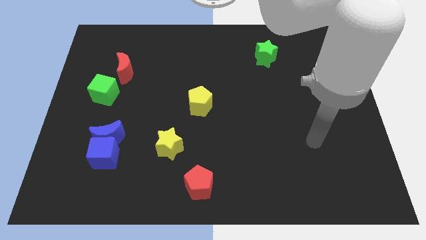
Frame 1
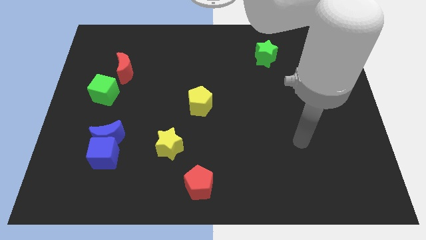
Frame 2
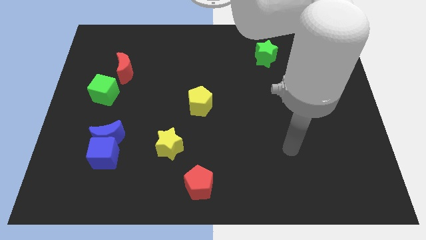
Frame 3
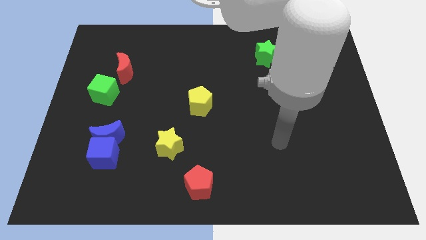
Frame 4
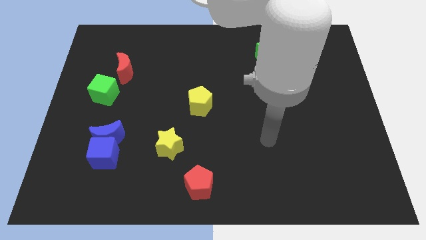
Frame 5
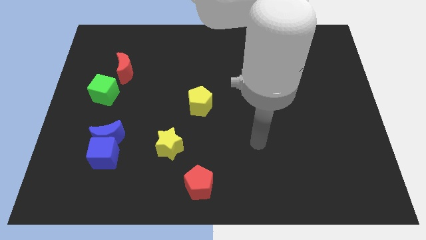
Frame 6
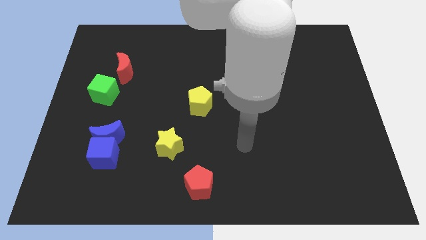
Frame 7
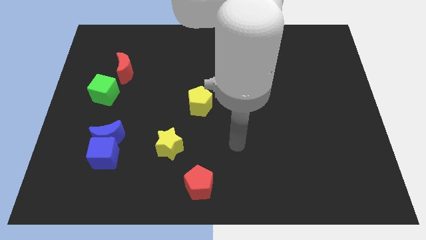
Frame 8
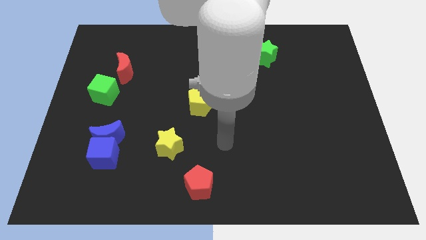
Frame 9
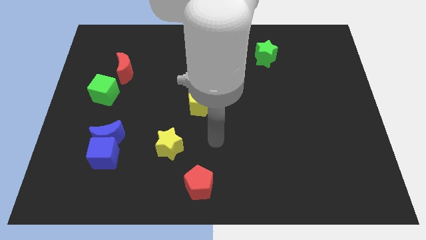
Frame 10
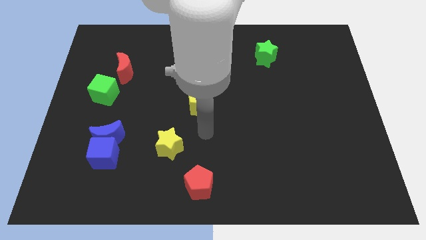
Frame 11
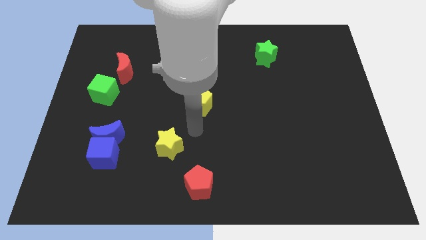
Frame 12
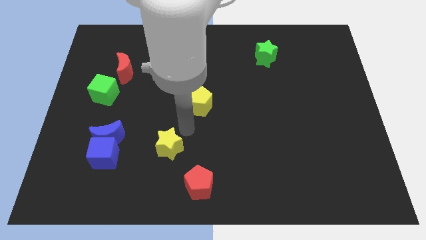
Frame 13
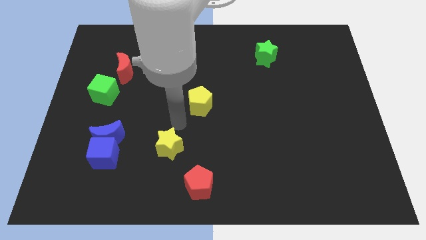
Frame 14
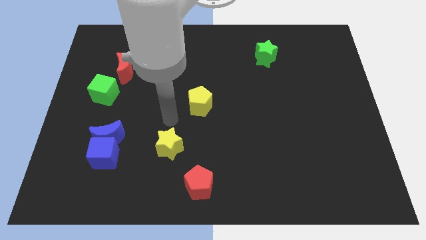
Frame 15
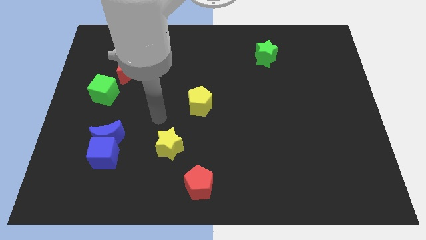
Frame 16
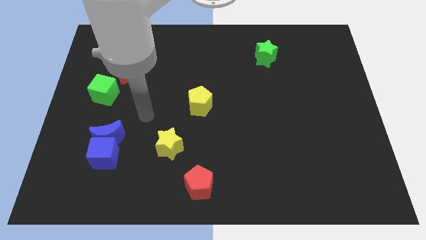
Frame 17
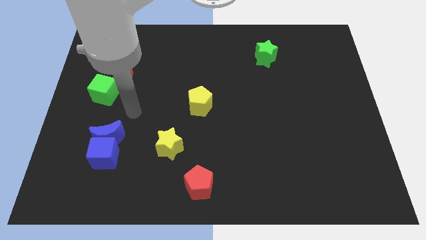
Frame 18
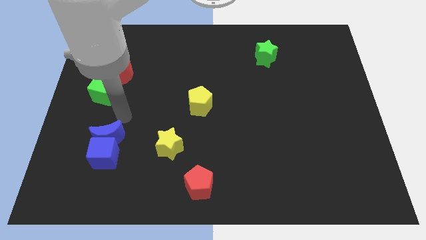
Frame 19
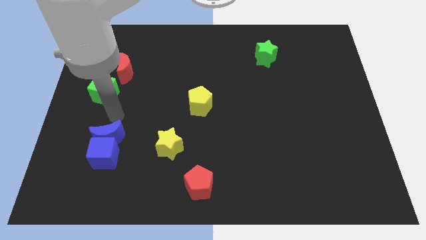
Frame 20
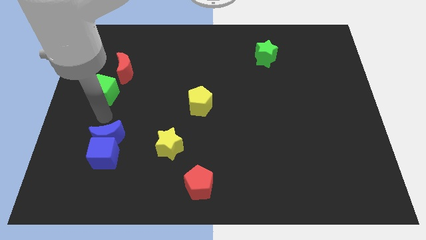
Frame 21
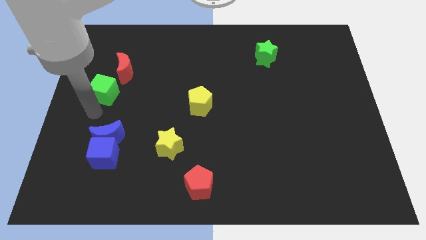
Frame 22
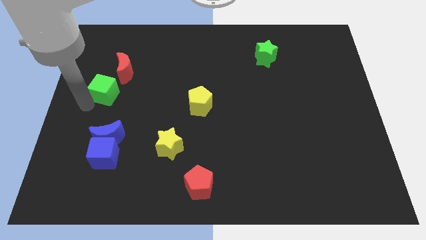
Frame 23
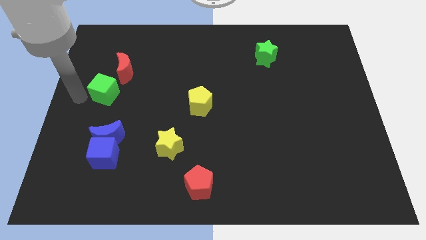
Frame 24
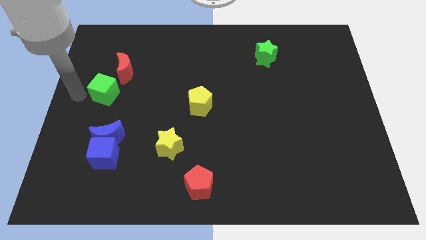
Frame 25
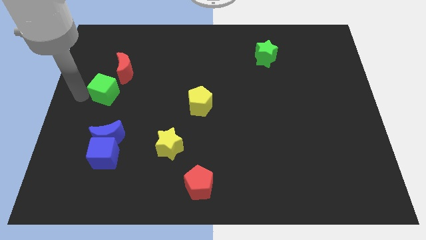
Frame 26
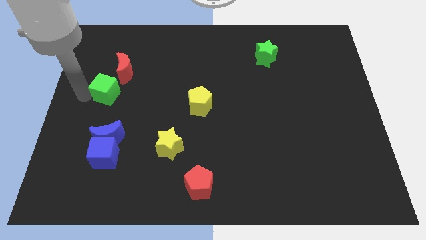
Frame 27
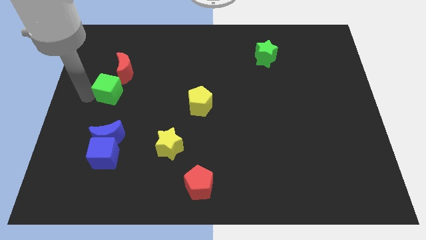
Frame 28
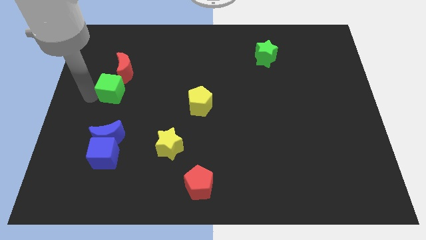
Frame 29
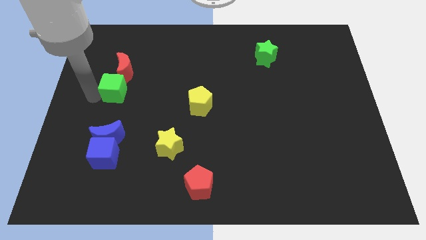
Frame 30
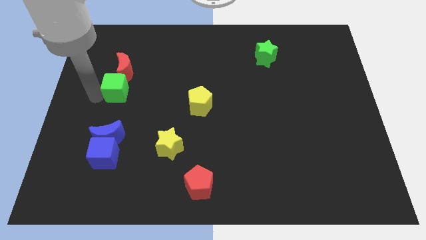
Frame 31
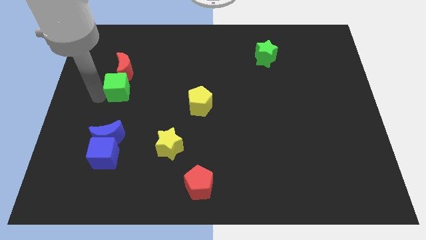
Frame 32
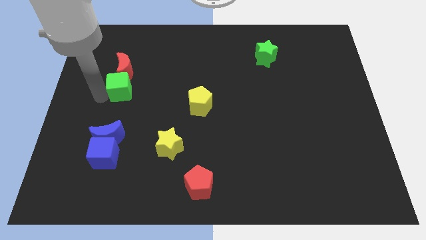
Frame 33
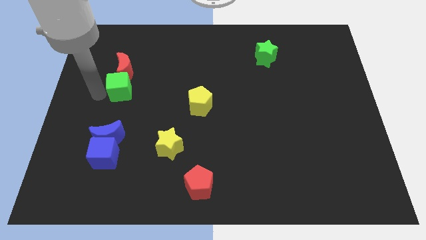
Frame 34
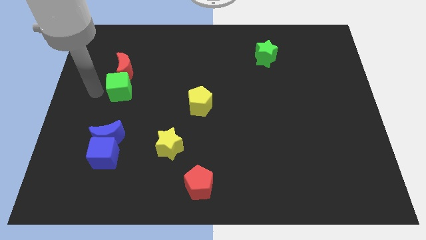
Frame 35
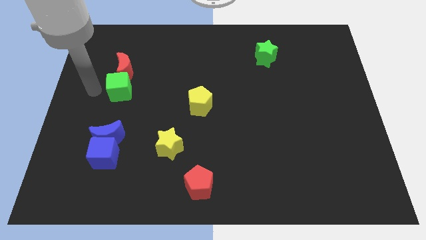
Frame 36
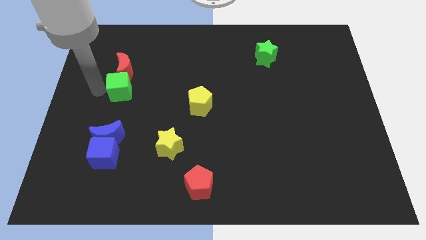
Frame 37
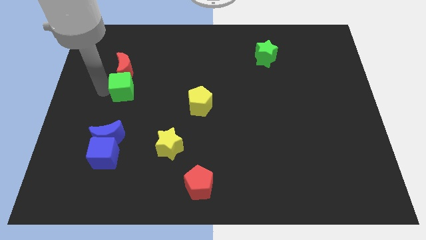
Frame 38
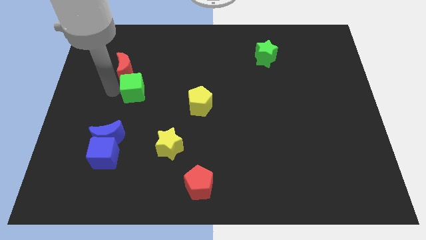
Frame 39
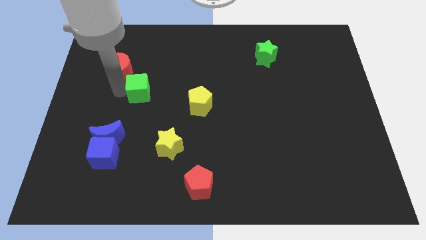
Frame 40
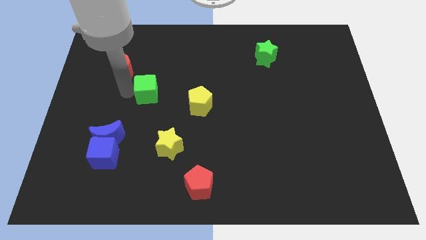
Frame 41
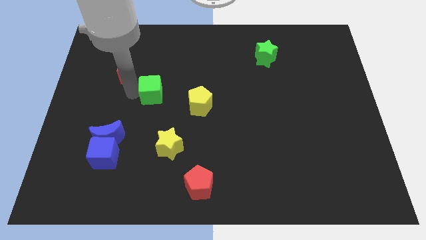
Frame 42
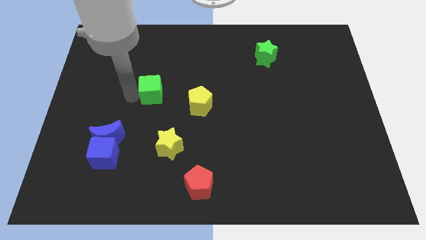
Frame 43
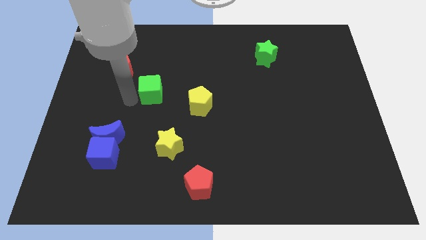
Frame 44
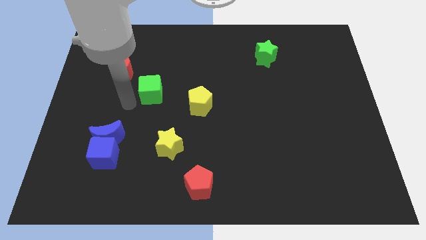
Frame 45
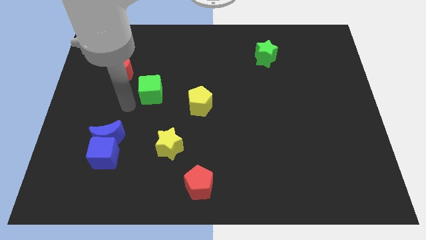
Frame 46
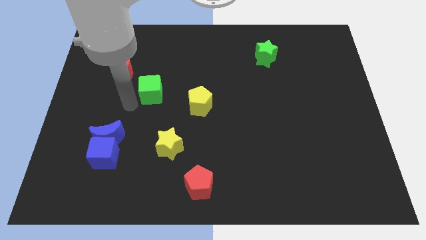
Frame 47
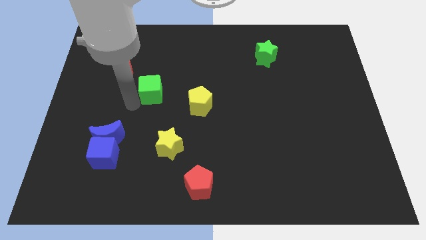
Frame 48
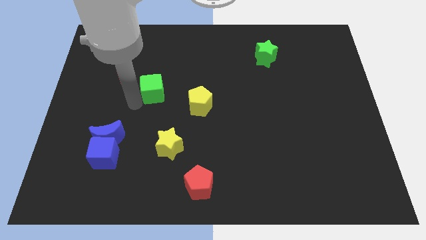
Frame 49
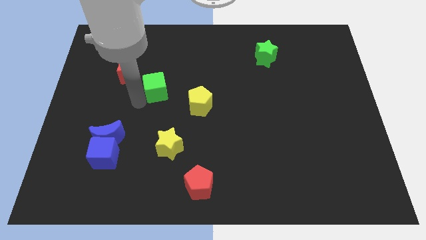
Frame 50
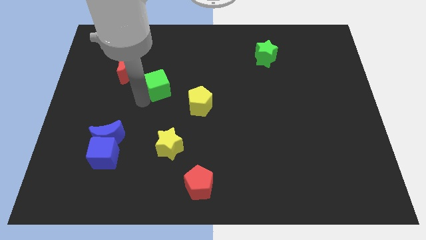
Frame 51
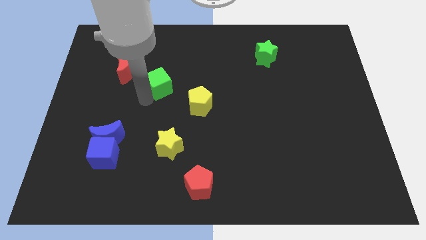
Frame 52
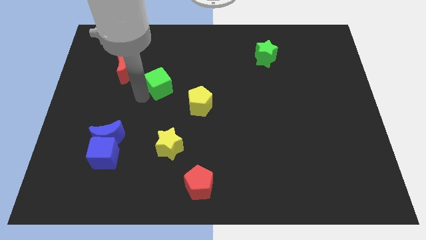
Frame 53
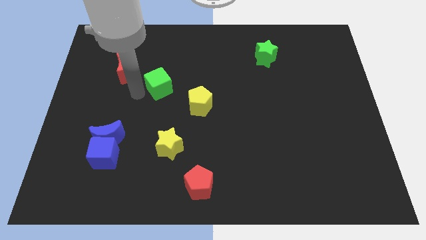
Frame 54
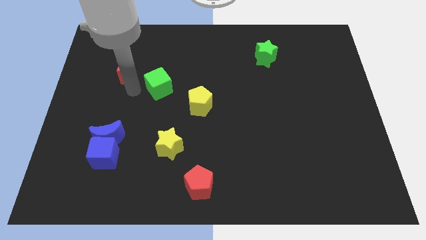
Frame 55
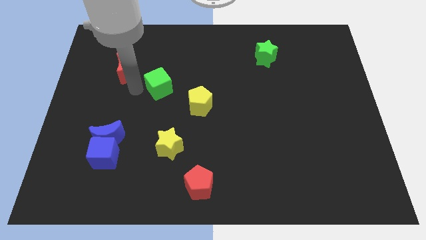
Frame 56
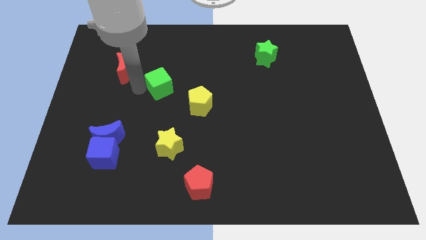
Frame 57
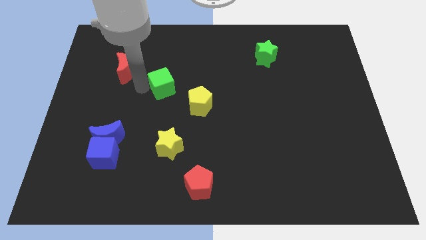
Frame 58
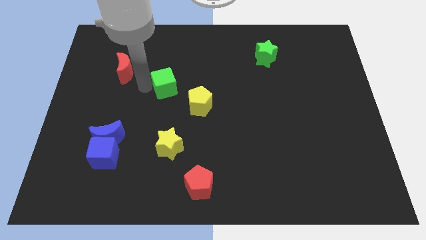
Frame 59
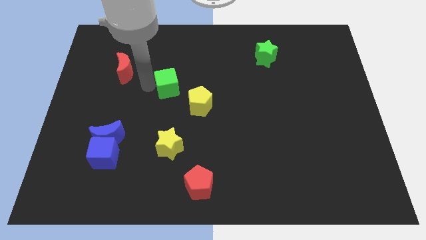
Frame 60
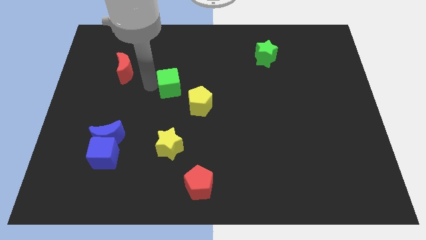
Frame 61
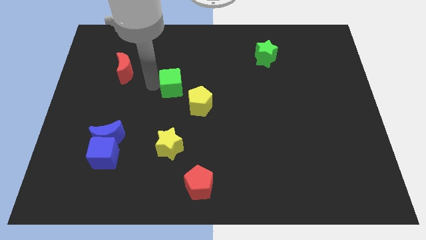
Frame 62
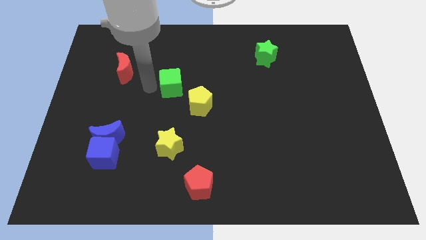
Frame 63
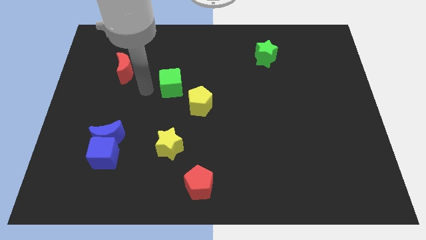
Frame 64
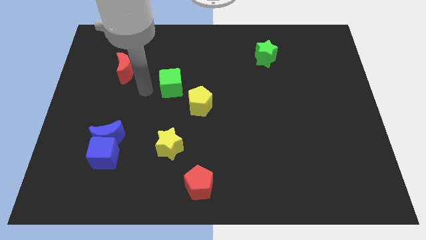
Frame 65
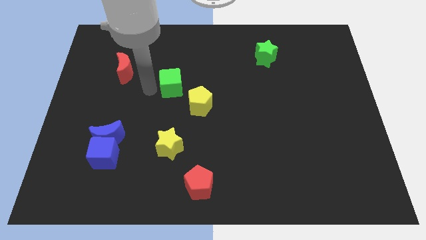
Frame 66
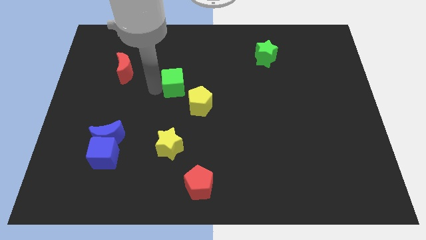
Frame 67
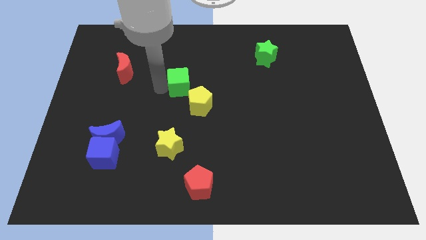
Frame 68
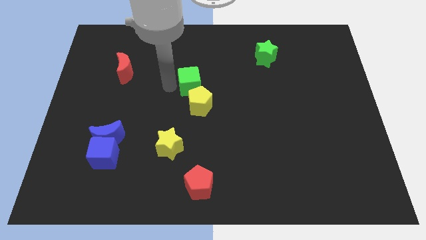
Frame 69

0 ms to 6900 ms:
slide the green cube right

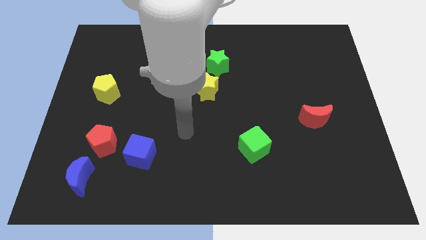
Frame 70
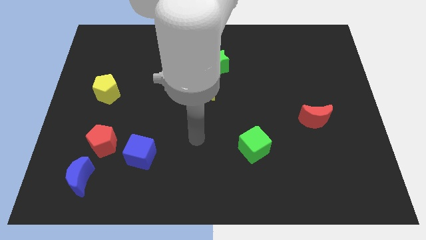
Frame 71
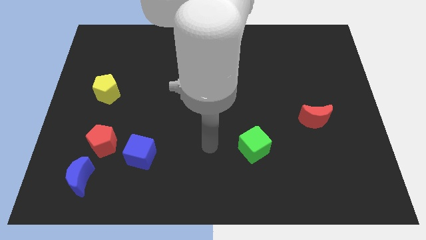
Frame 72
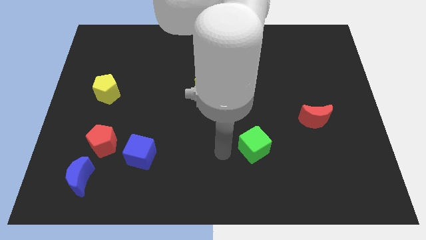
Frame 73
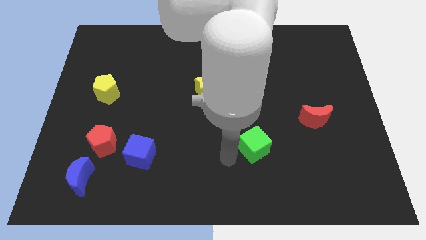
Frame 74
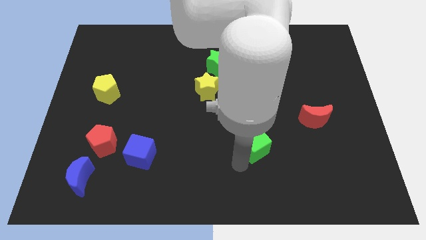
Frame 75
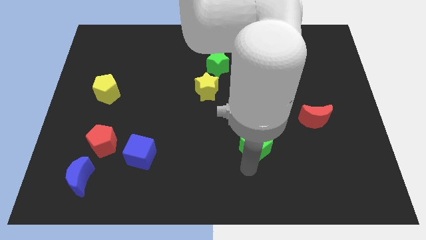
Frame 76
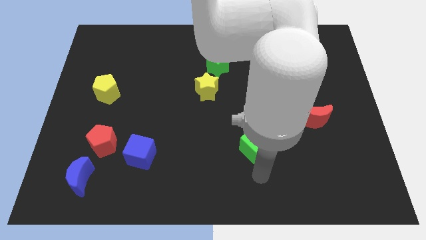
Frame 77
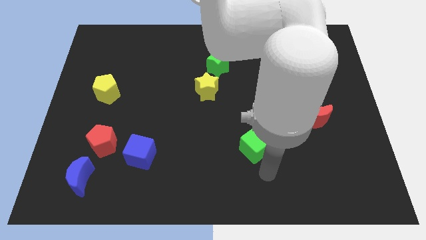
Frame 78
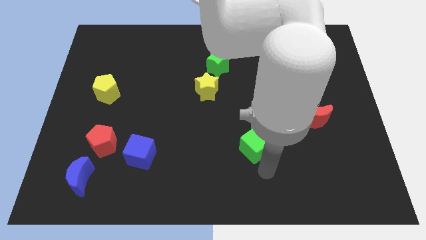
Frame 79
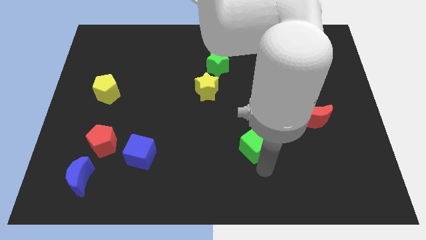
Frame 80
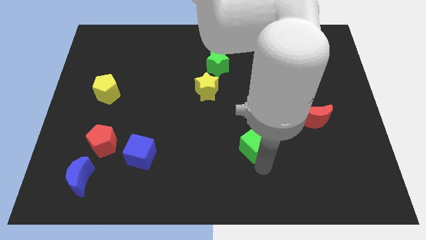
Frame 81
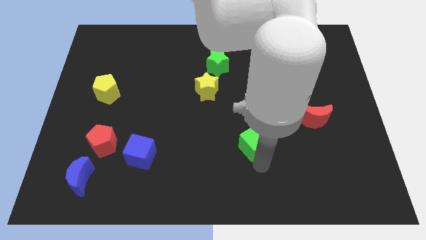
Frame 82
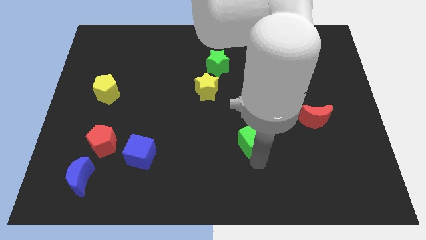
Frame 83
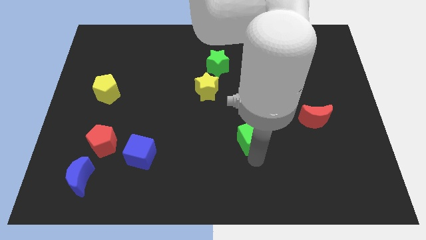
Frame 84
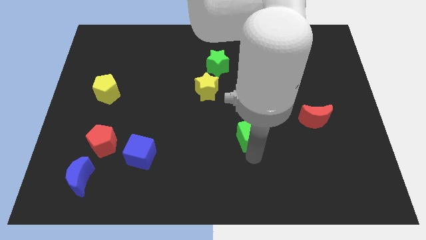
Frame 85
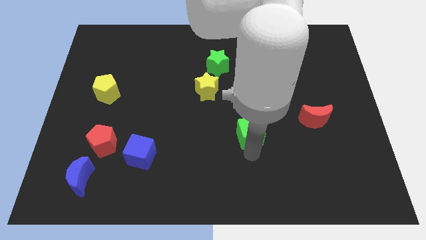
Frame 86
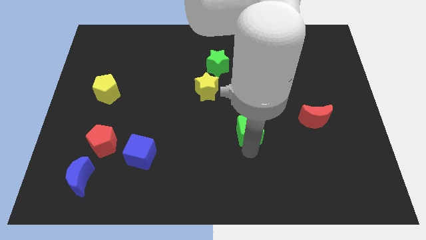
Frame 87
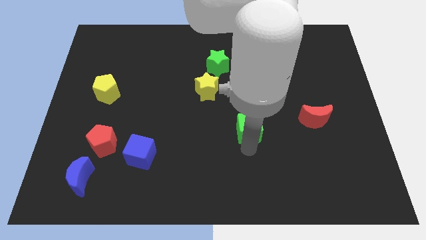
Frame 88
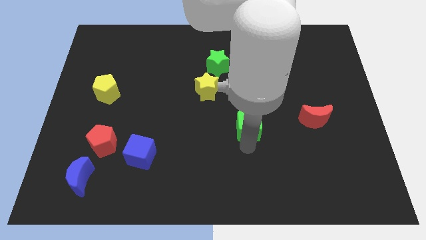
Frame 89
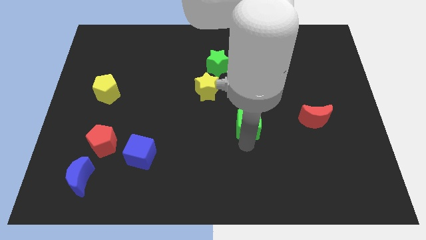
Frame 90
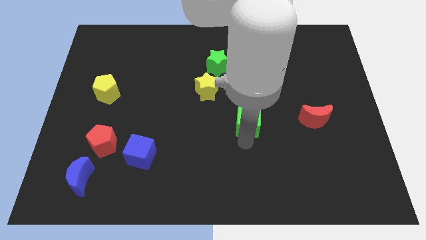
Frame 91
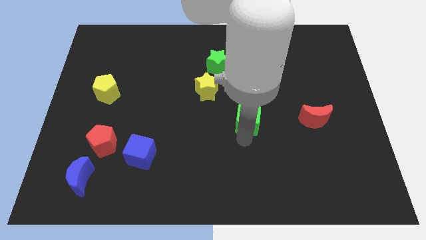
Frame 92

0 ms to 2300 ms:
push the green cube slightly upwards
